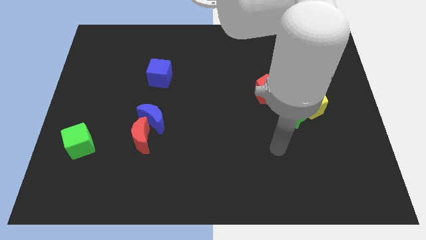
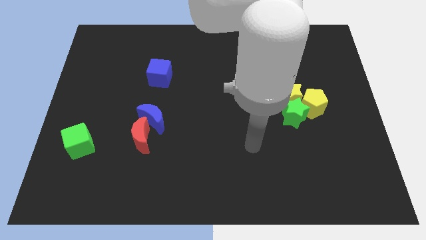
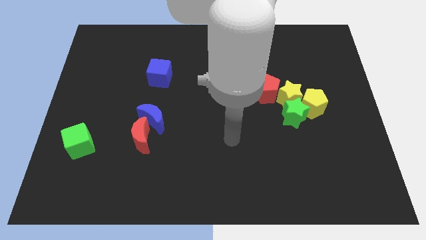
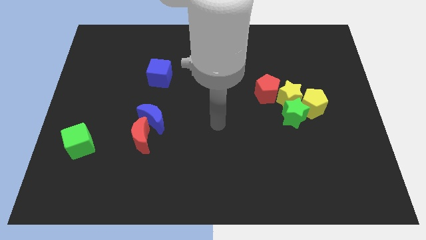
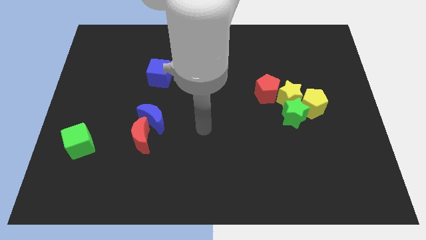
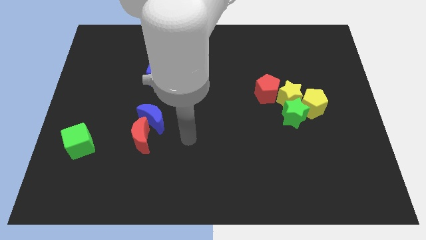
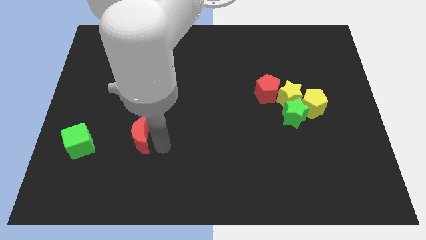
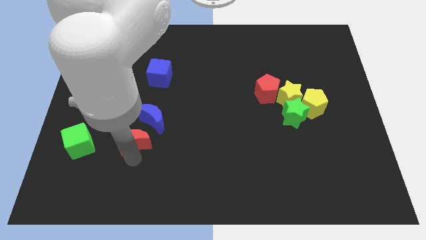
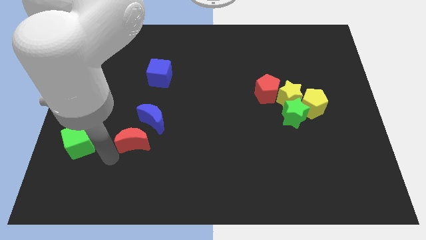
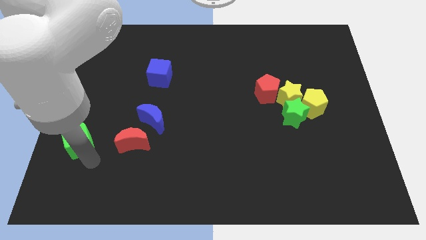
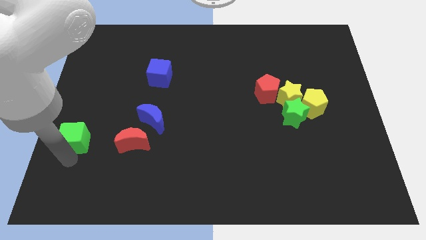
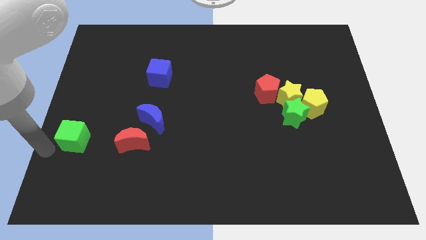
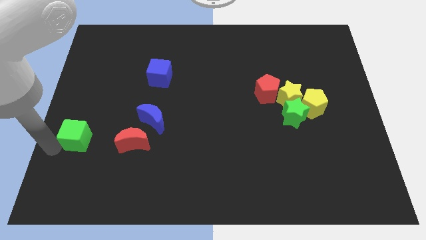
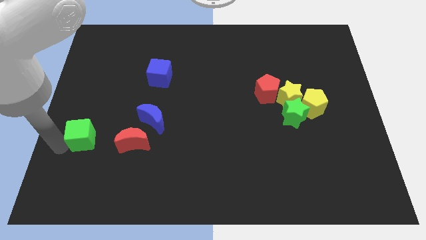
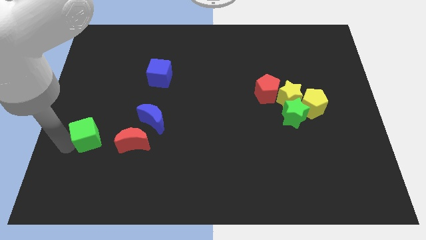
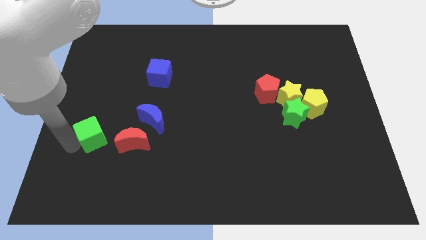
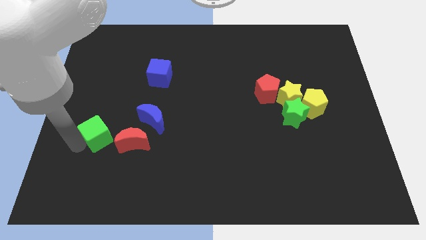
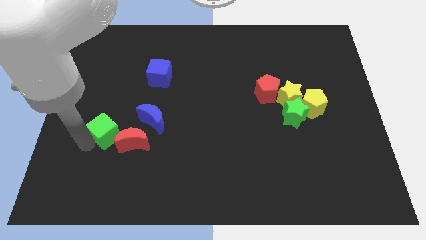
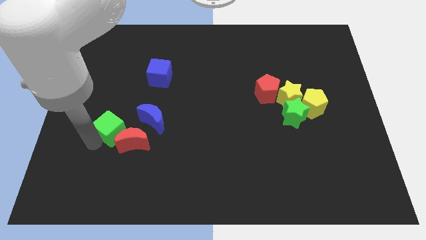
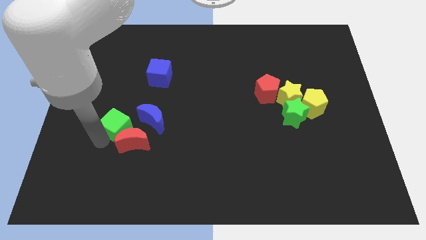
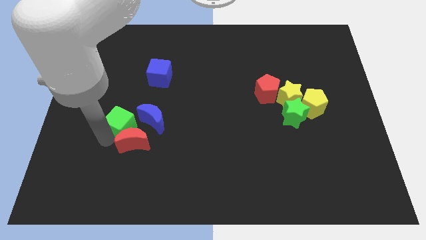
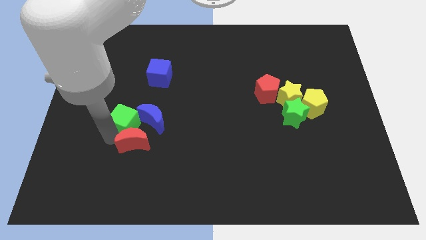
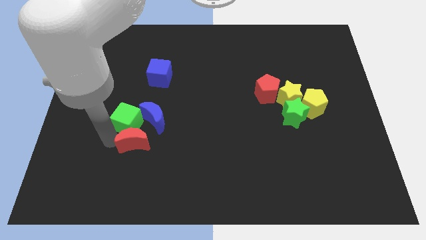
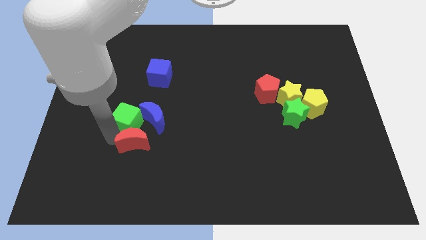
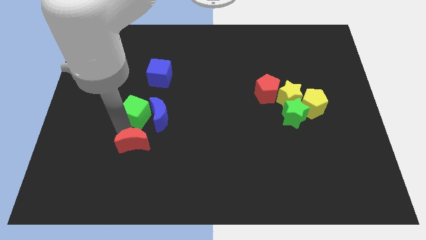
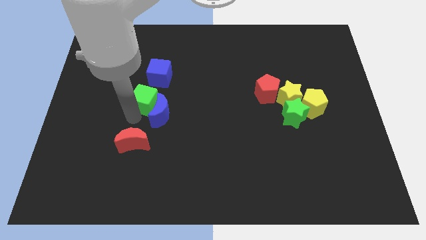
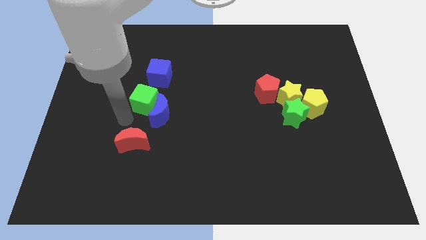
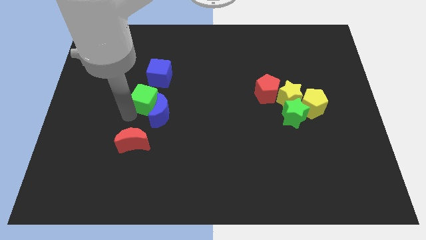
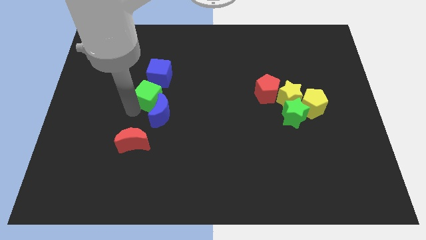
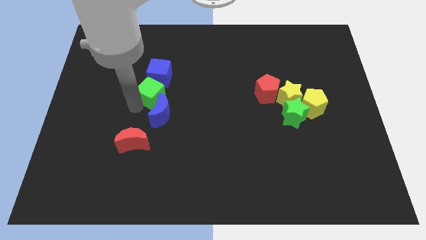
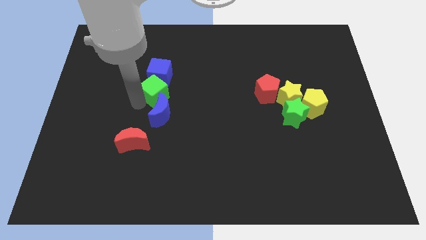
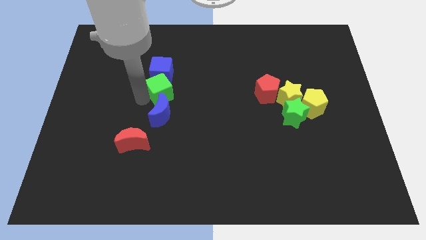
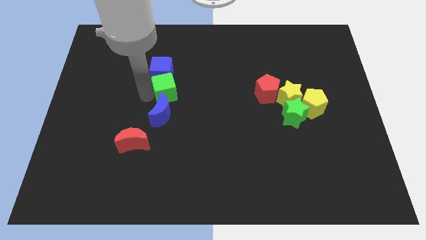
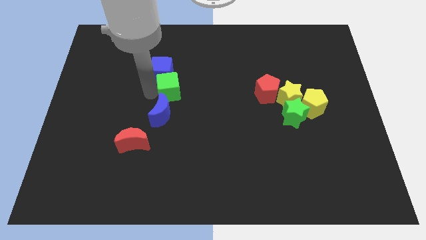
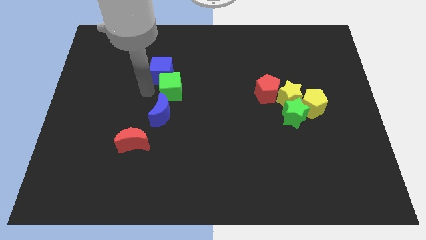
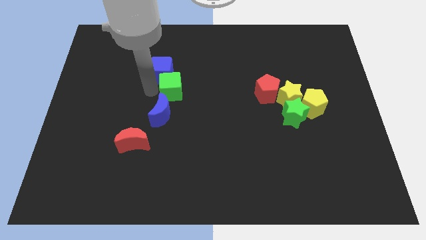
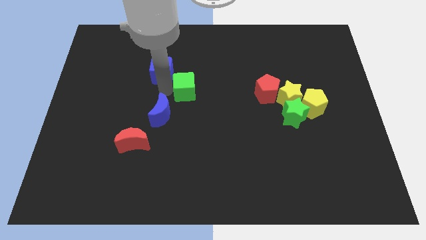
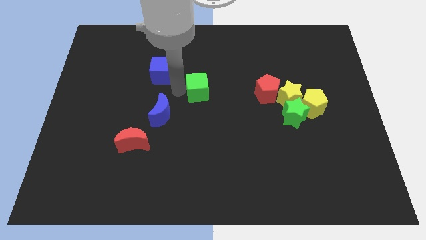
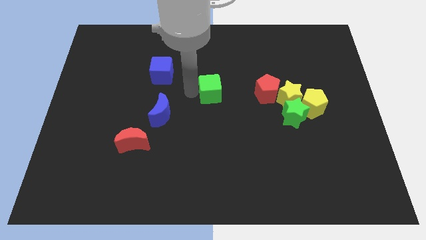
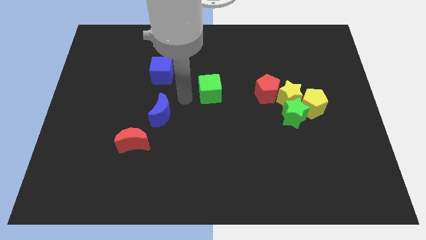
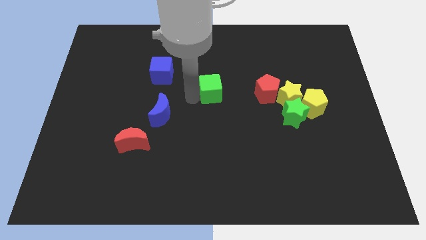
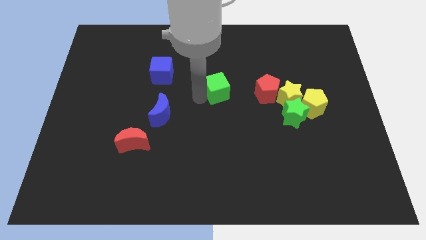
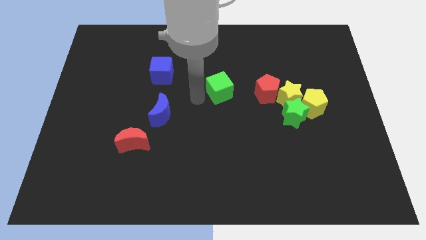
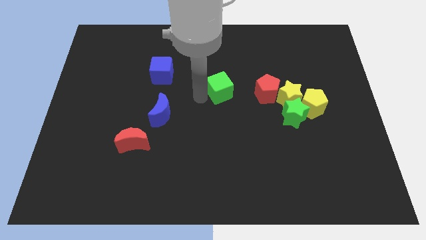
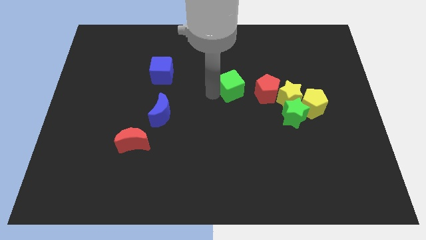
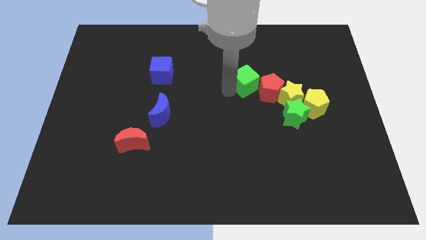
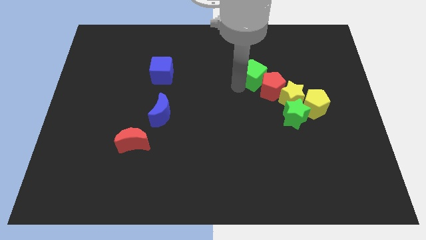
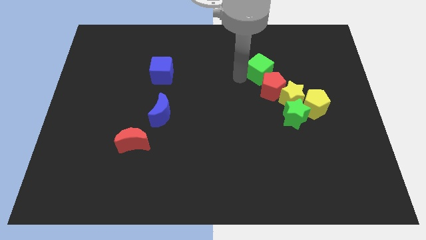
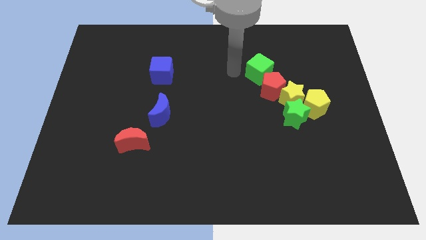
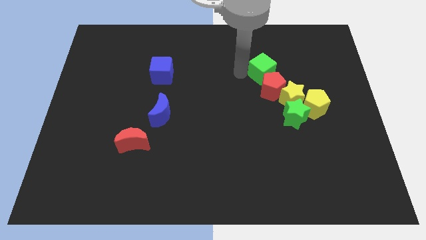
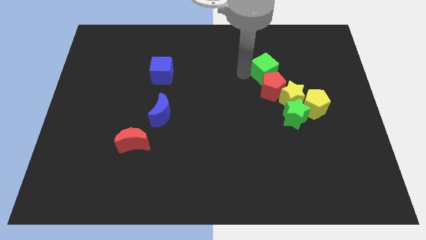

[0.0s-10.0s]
put the green cube diagonally up and to the right of the red pentagon

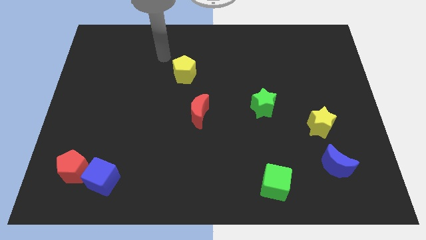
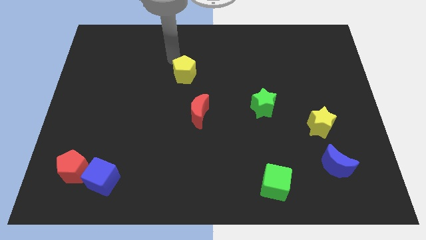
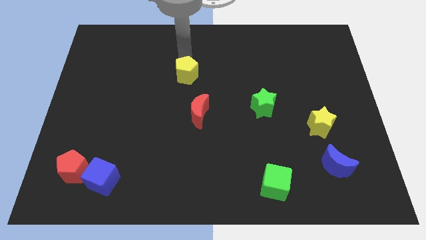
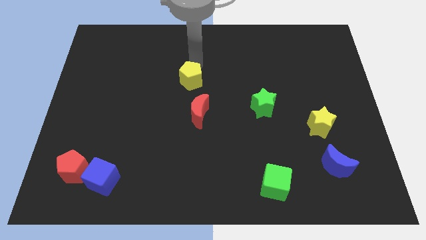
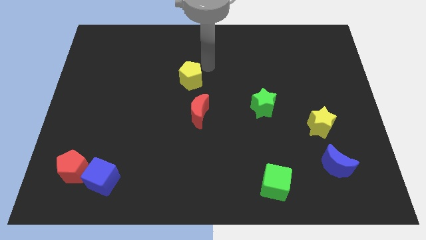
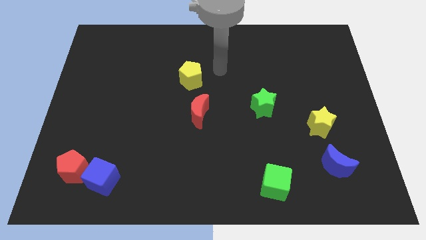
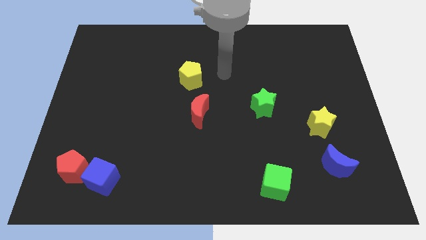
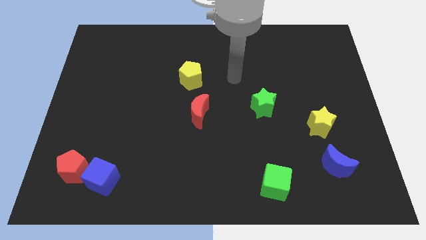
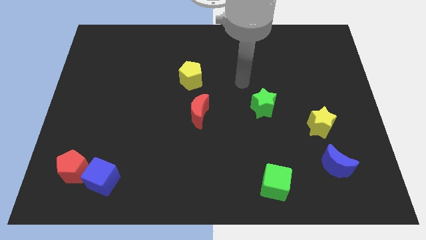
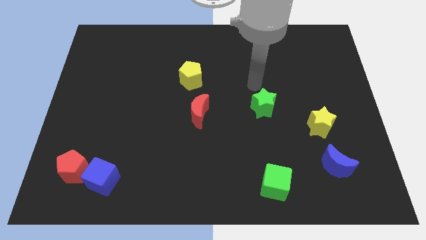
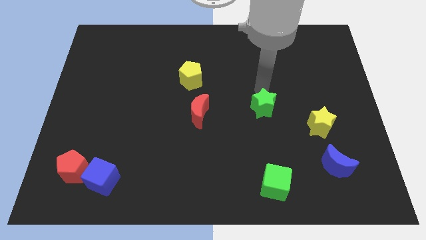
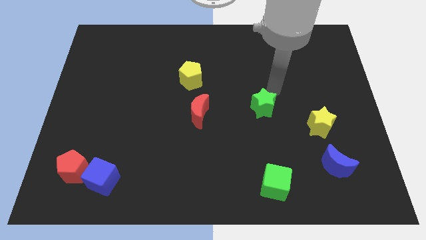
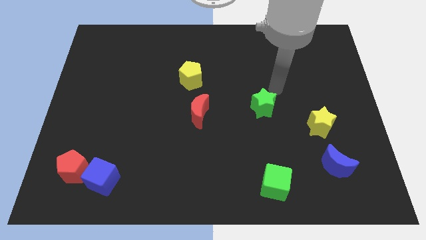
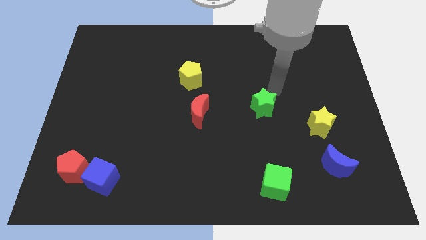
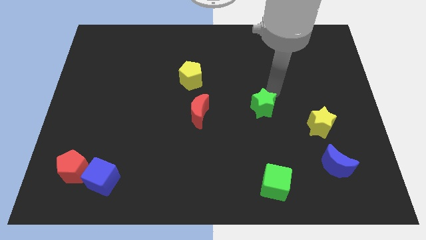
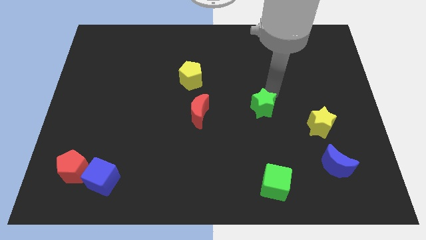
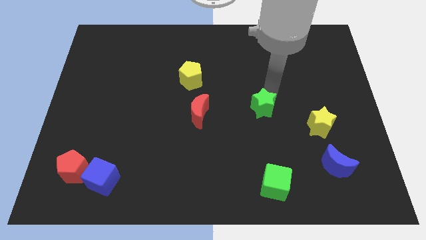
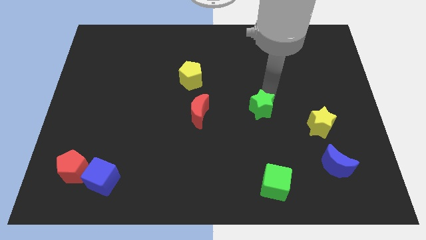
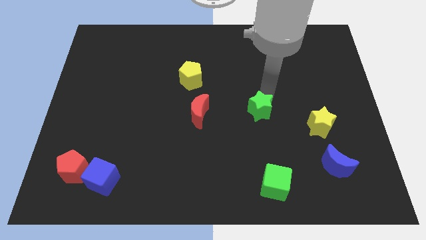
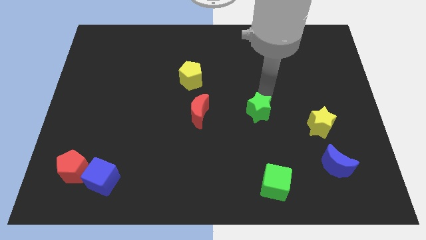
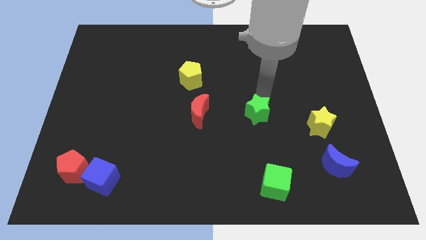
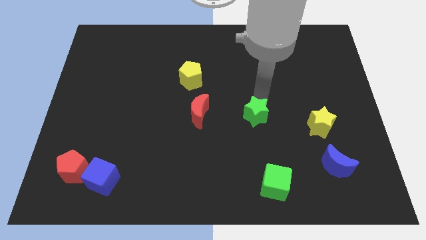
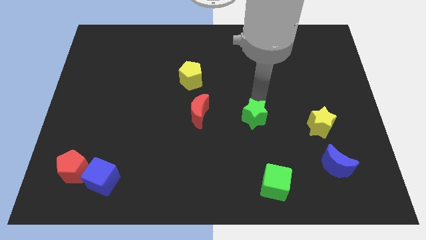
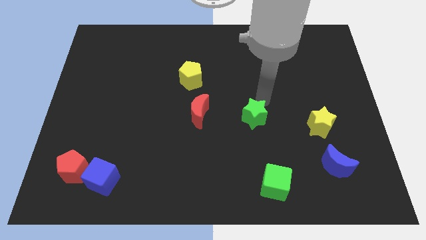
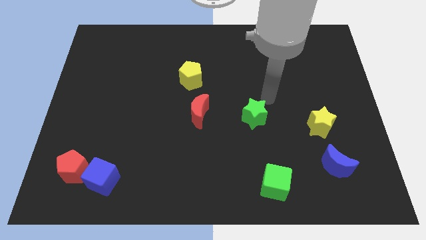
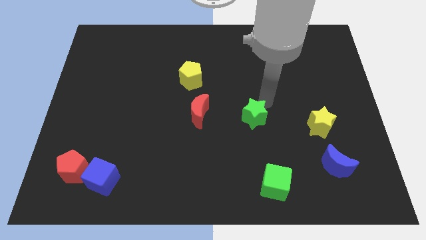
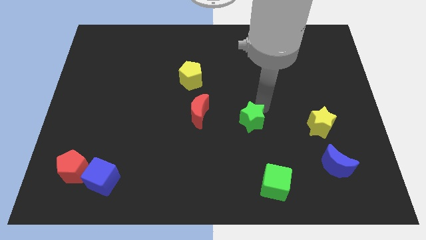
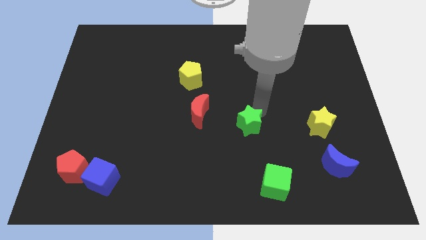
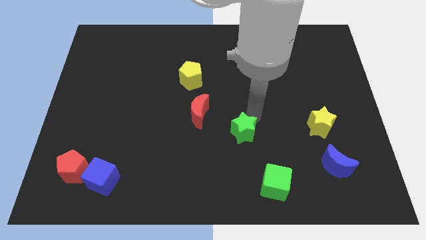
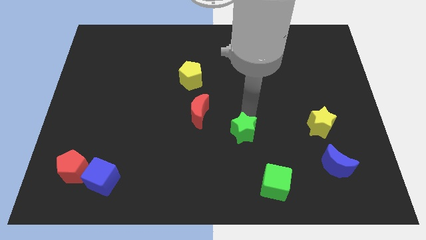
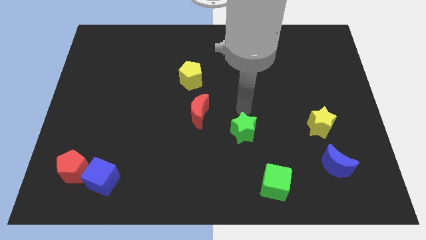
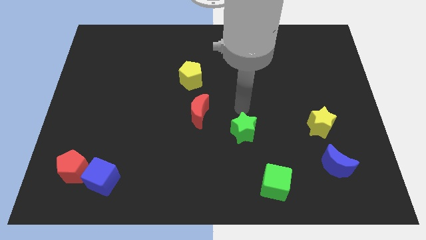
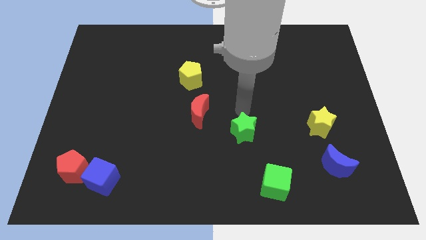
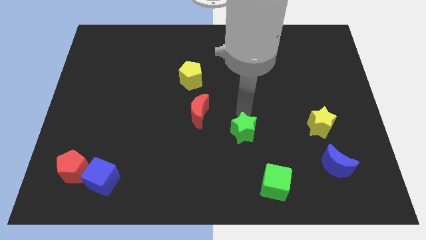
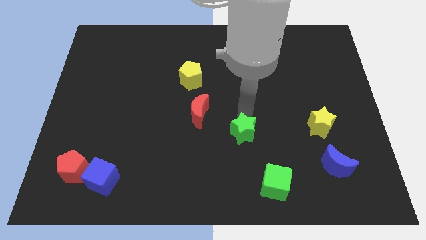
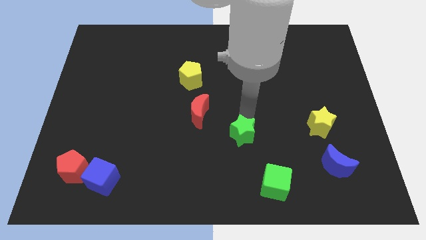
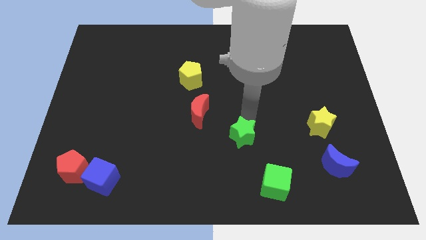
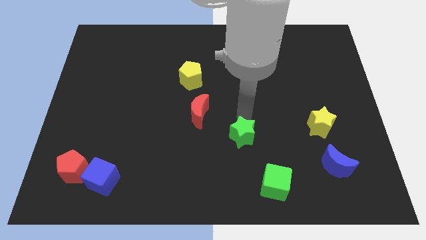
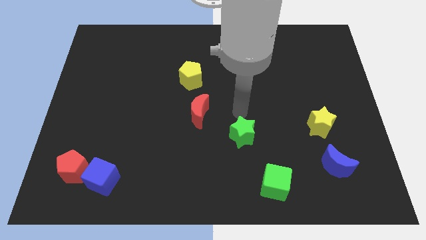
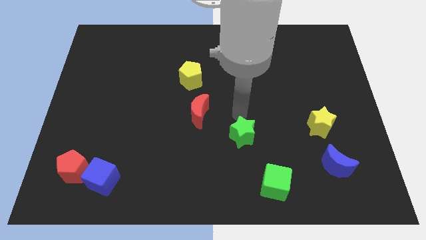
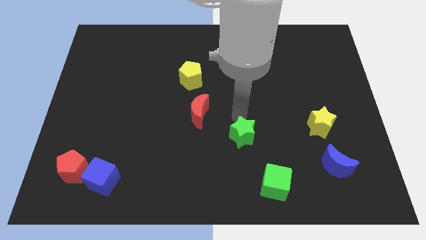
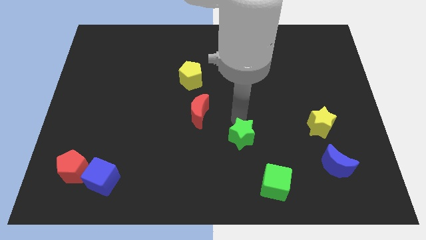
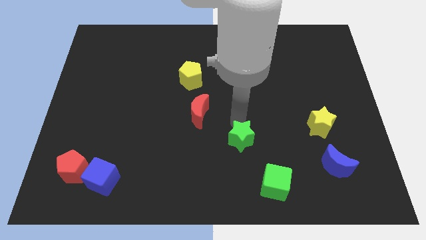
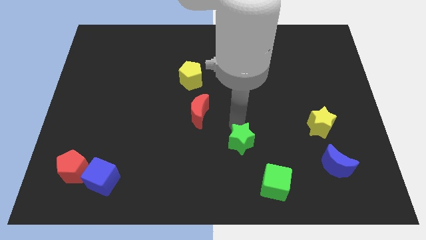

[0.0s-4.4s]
slide the green star to the top left of the green cube
